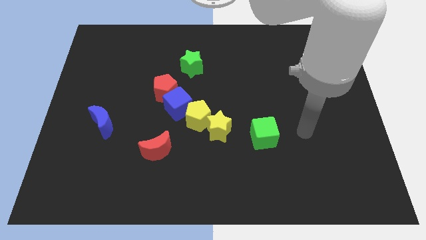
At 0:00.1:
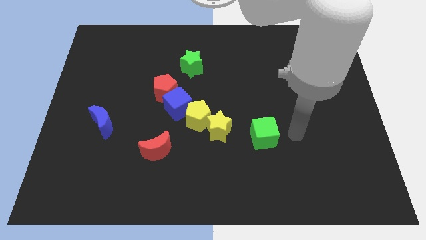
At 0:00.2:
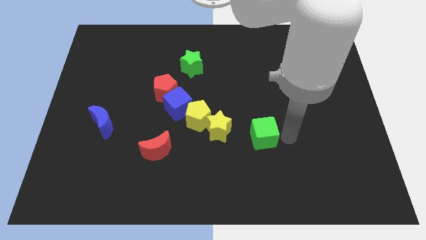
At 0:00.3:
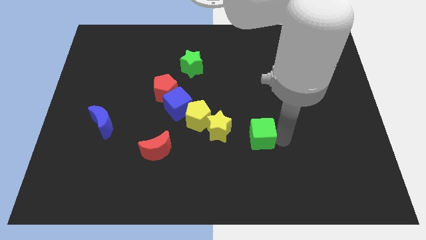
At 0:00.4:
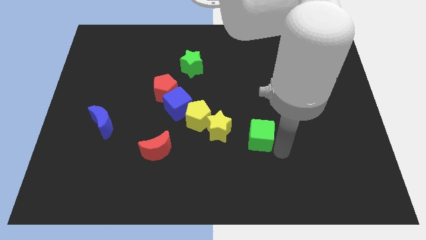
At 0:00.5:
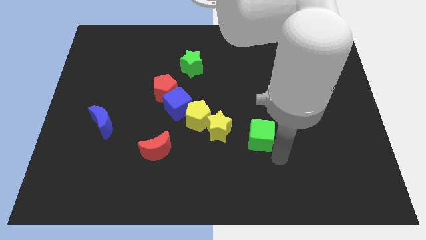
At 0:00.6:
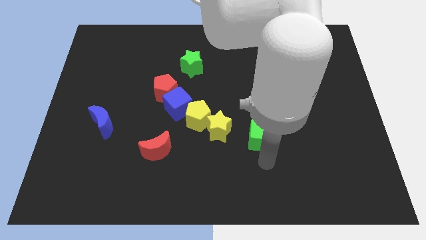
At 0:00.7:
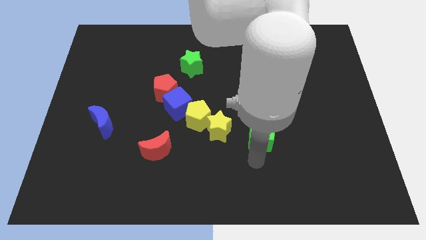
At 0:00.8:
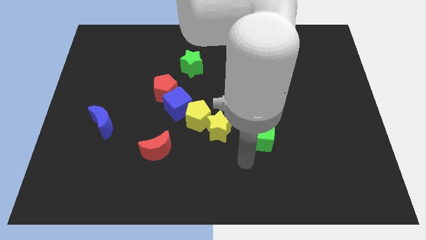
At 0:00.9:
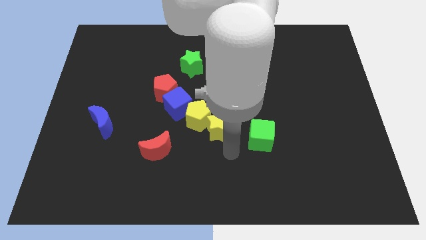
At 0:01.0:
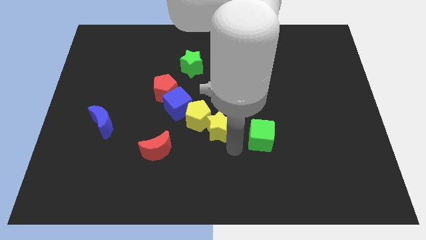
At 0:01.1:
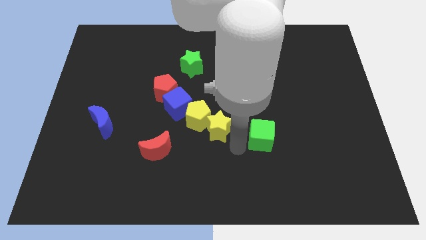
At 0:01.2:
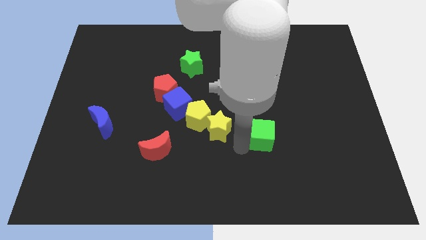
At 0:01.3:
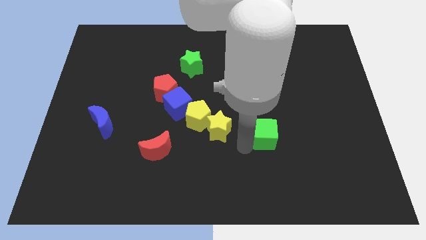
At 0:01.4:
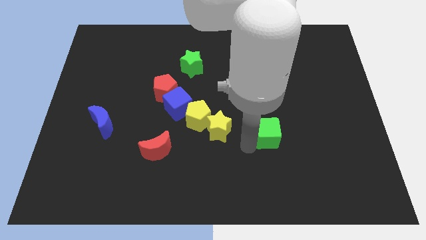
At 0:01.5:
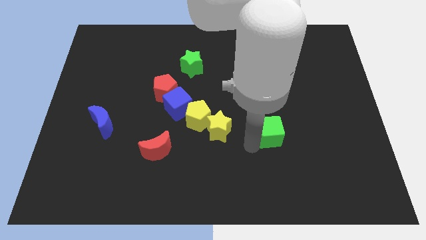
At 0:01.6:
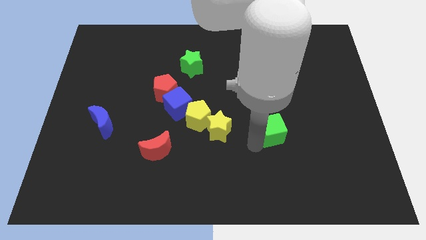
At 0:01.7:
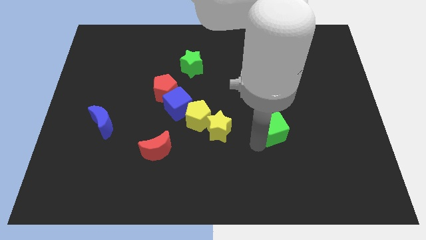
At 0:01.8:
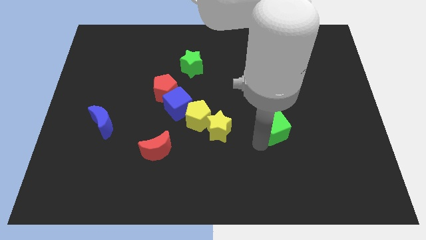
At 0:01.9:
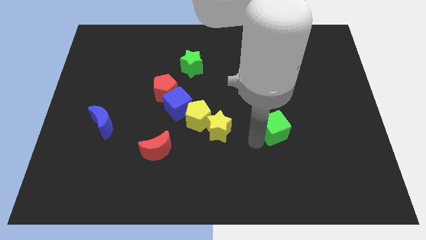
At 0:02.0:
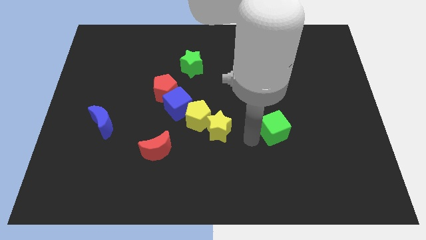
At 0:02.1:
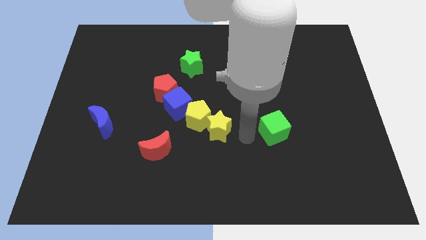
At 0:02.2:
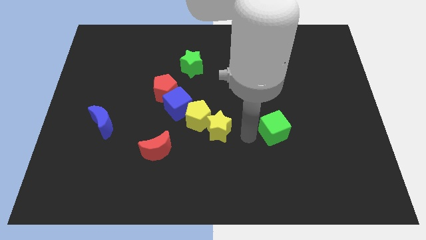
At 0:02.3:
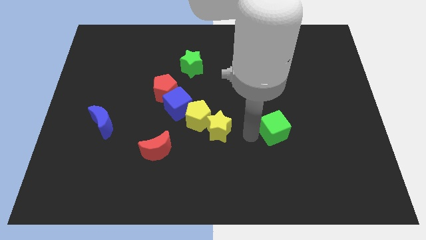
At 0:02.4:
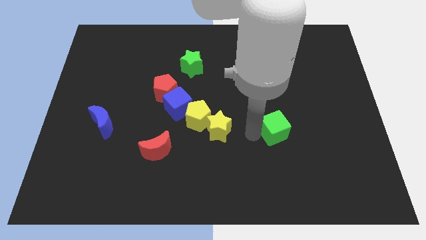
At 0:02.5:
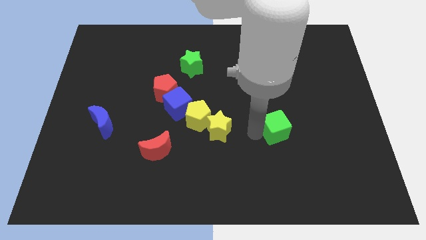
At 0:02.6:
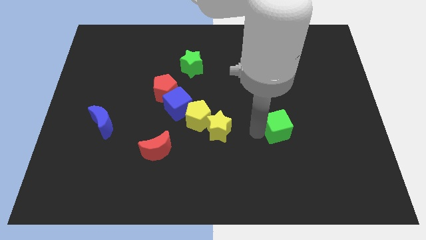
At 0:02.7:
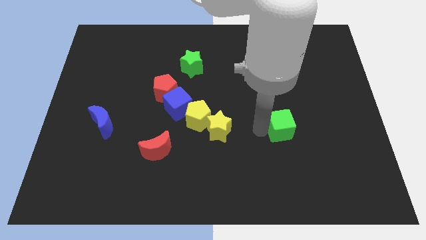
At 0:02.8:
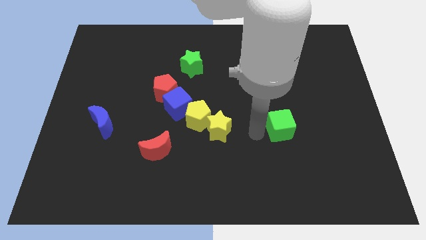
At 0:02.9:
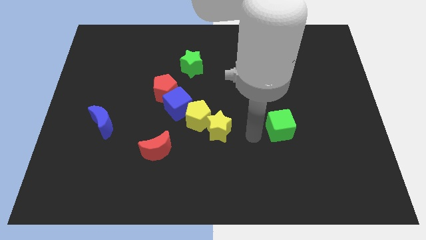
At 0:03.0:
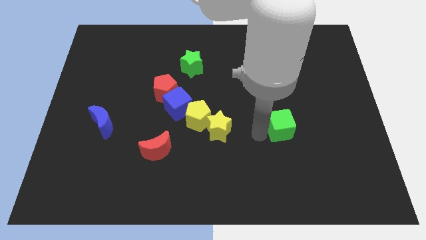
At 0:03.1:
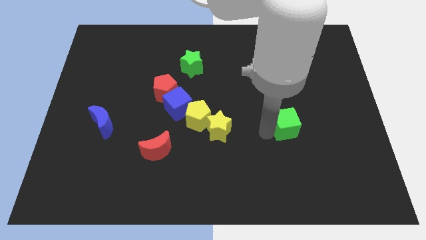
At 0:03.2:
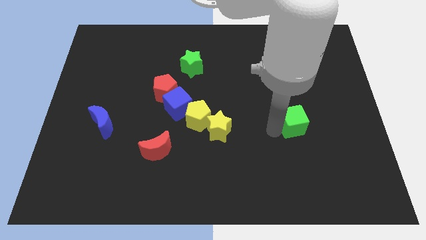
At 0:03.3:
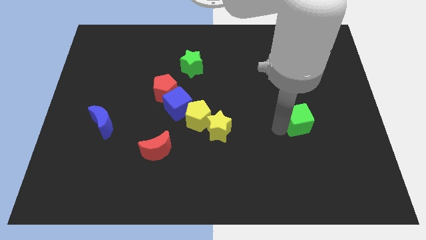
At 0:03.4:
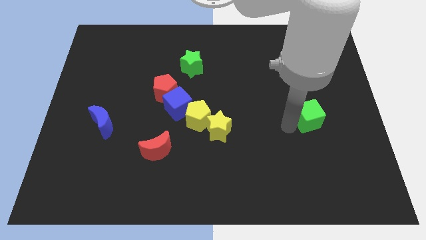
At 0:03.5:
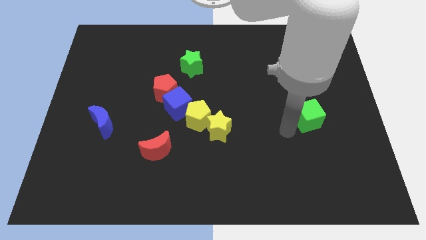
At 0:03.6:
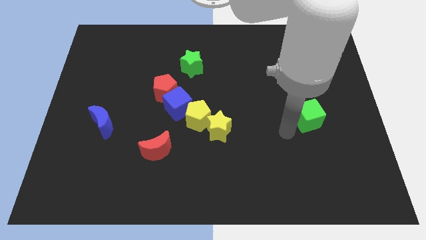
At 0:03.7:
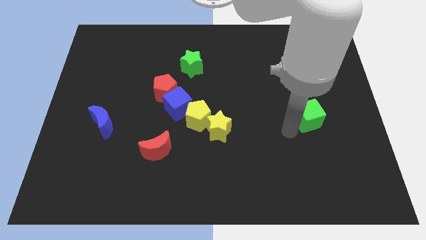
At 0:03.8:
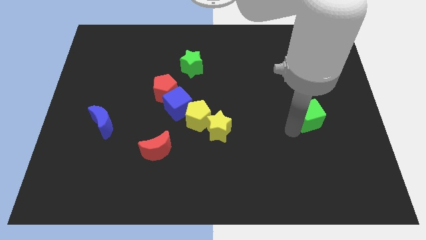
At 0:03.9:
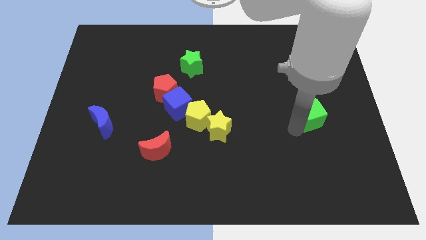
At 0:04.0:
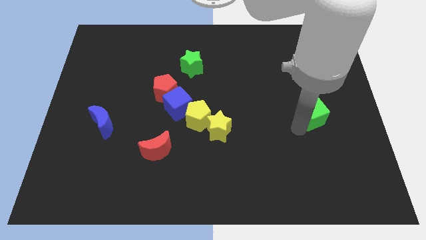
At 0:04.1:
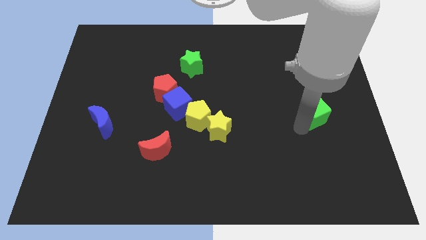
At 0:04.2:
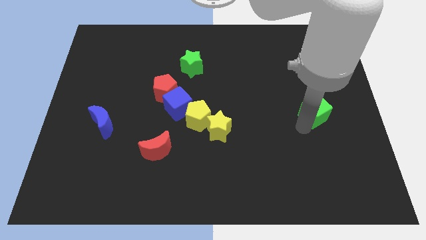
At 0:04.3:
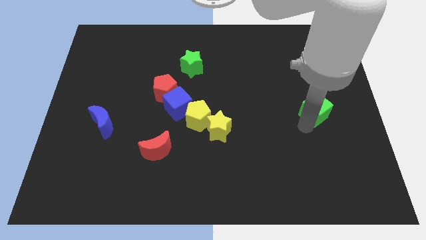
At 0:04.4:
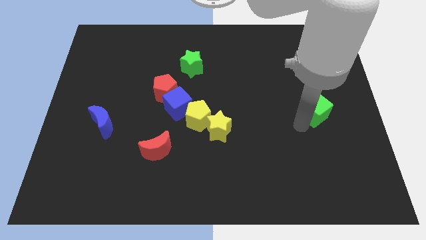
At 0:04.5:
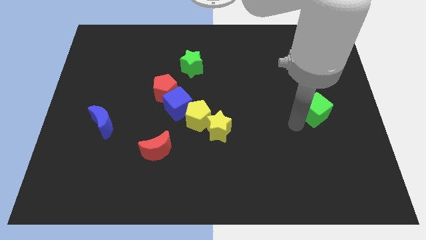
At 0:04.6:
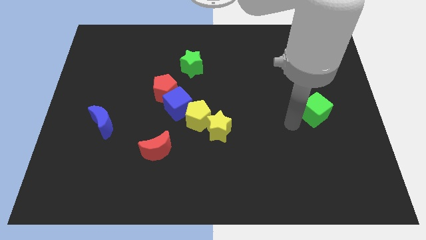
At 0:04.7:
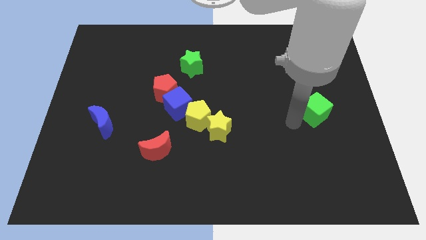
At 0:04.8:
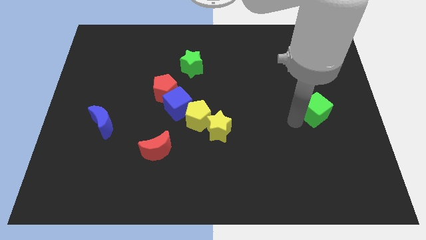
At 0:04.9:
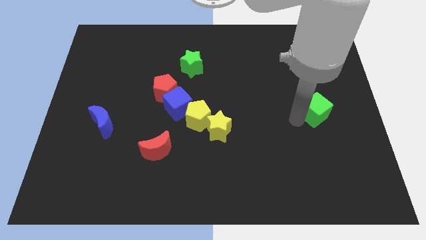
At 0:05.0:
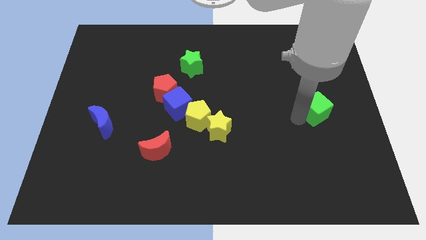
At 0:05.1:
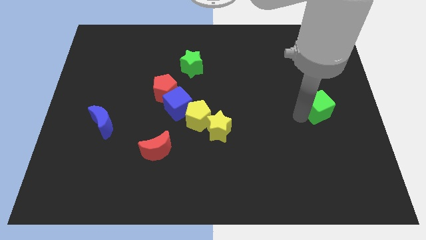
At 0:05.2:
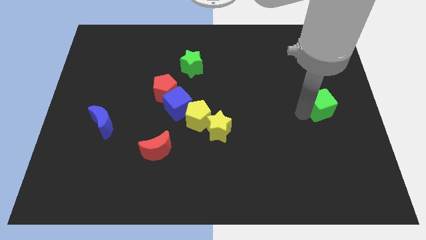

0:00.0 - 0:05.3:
move the green cube to the center right

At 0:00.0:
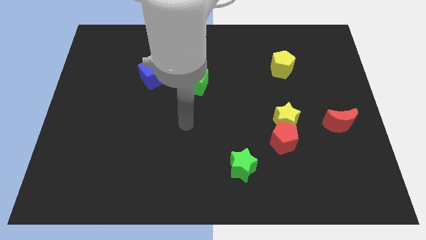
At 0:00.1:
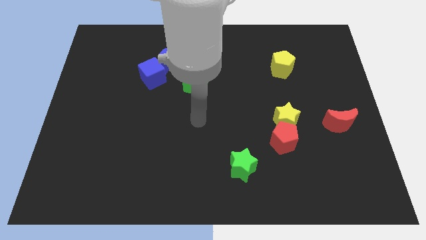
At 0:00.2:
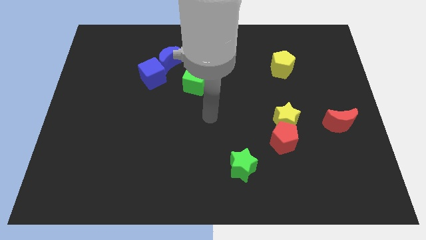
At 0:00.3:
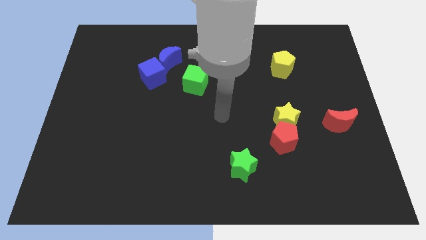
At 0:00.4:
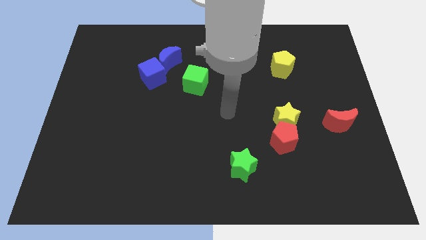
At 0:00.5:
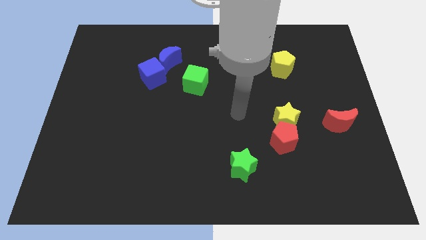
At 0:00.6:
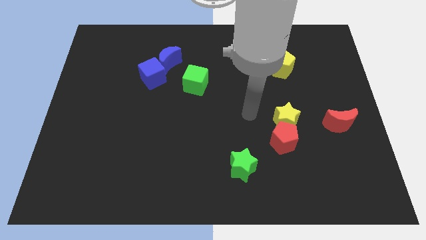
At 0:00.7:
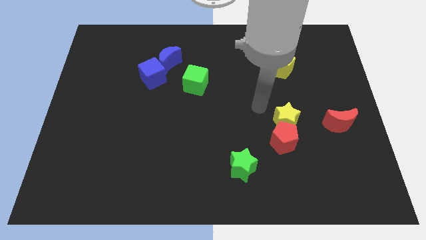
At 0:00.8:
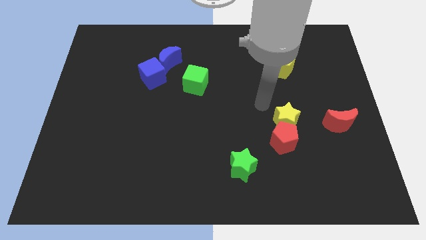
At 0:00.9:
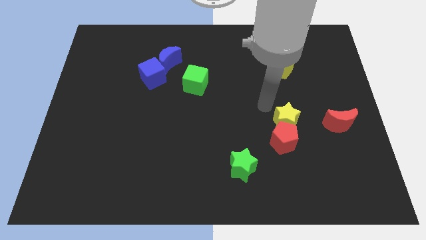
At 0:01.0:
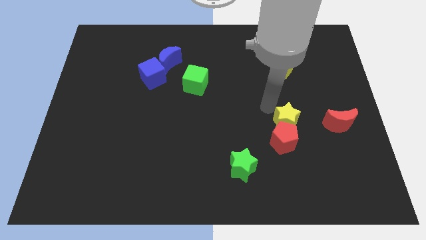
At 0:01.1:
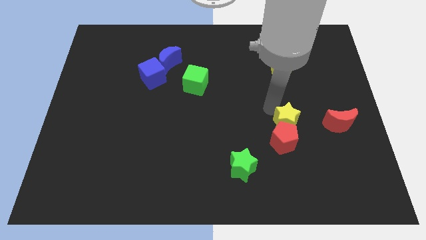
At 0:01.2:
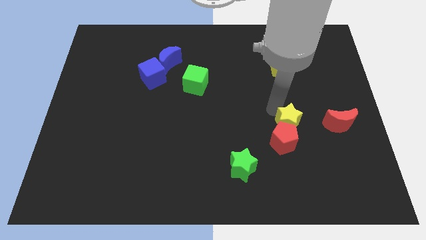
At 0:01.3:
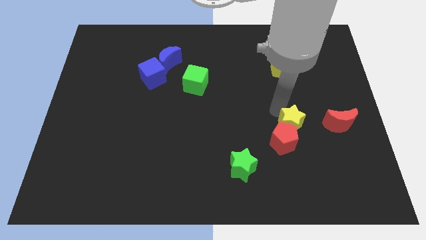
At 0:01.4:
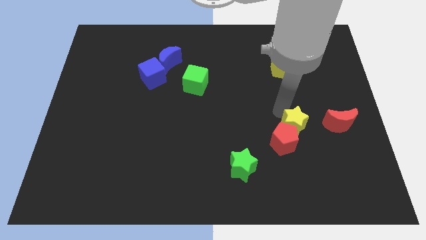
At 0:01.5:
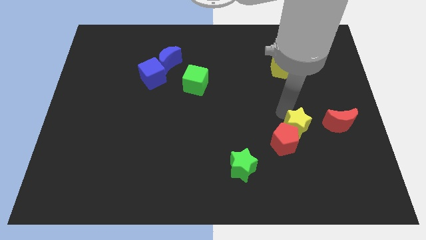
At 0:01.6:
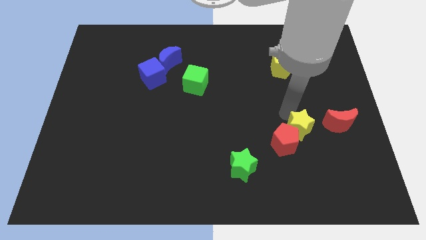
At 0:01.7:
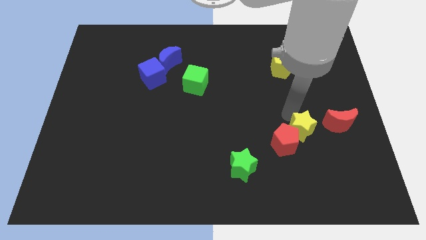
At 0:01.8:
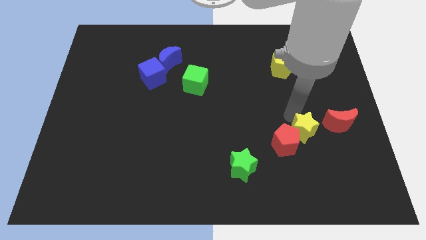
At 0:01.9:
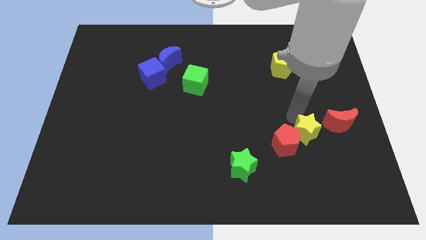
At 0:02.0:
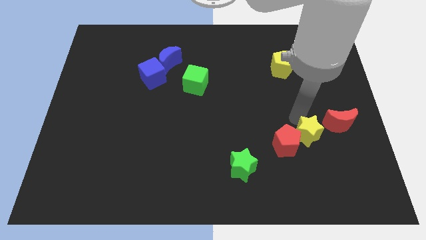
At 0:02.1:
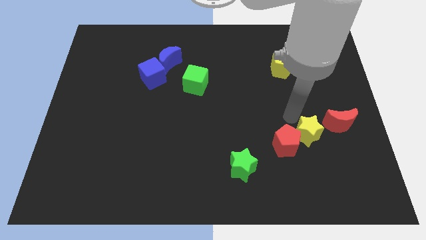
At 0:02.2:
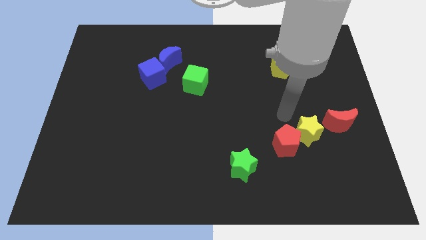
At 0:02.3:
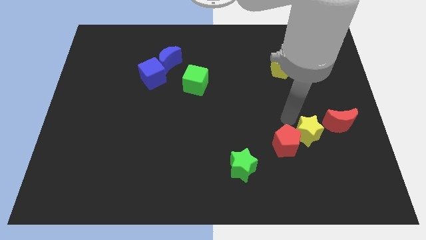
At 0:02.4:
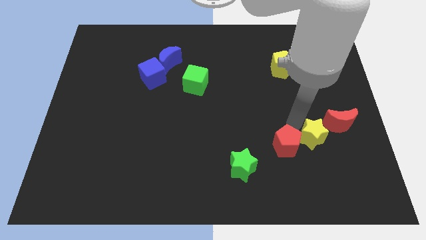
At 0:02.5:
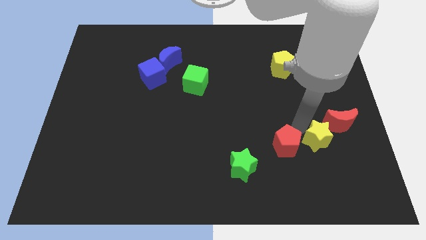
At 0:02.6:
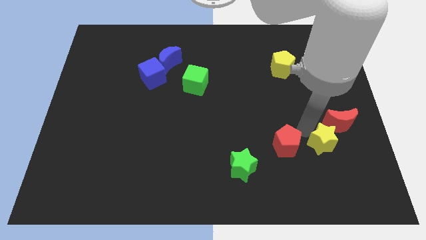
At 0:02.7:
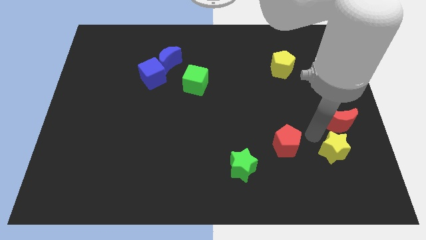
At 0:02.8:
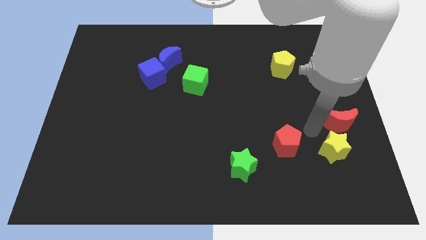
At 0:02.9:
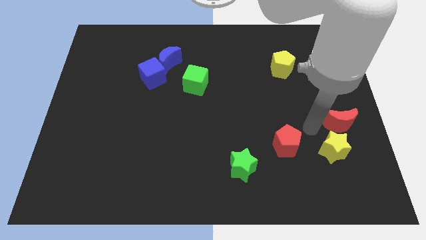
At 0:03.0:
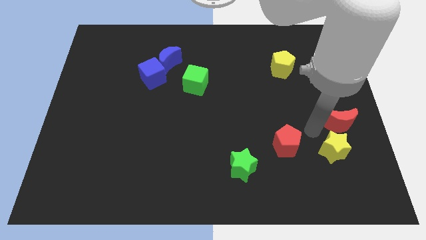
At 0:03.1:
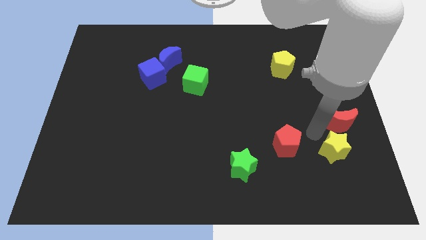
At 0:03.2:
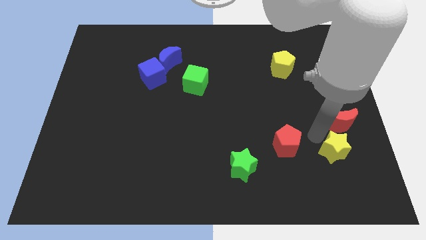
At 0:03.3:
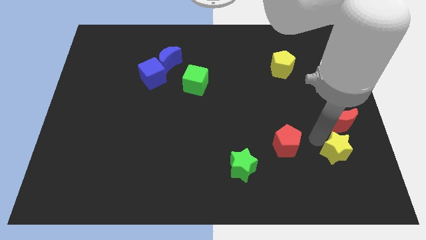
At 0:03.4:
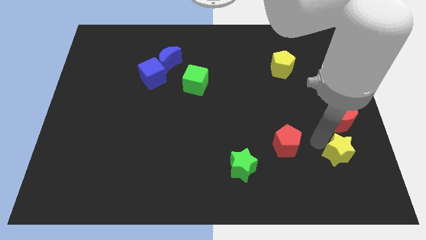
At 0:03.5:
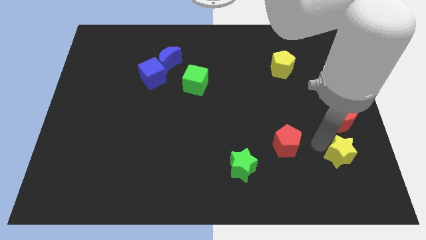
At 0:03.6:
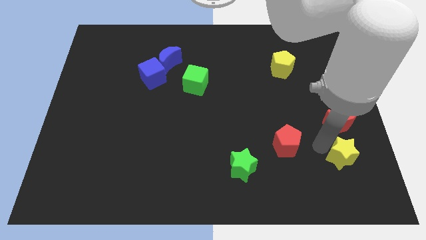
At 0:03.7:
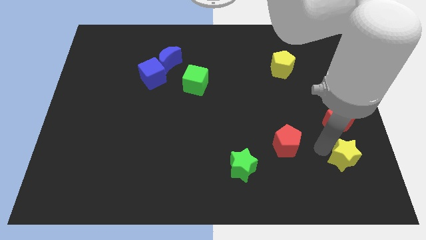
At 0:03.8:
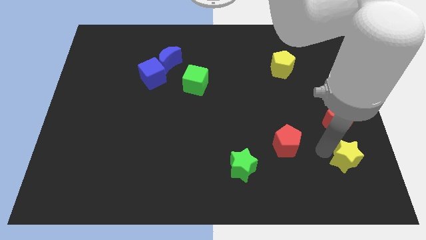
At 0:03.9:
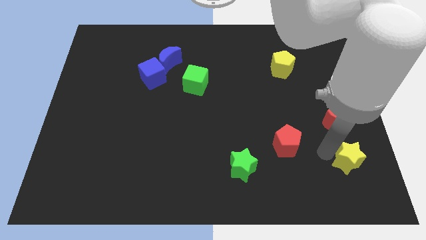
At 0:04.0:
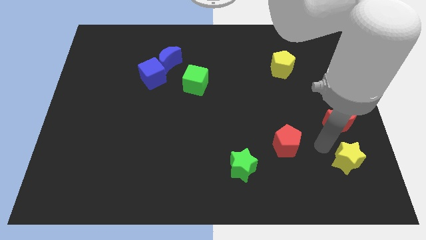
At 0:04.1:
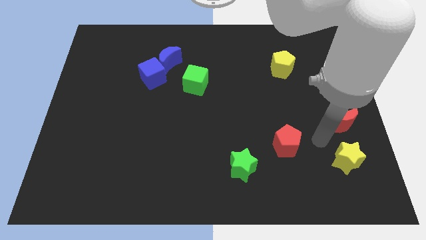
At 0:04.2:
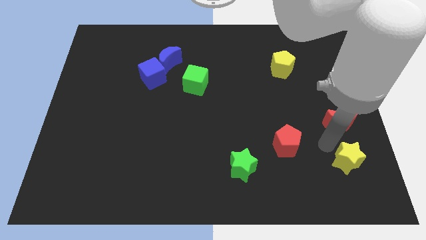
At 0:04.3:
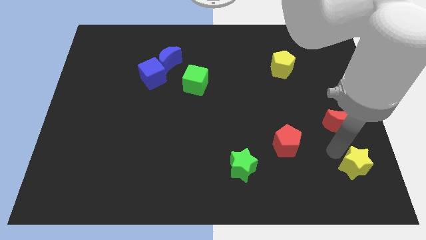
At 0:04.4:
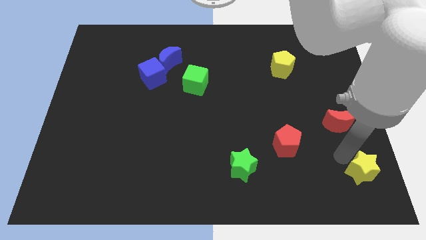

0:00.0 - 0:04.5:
slide the yellow star to the bottom right of the board
